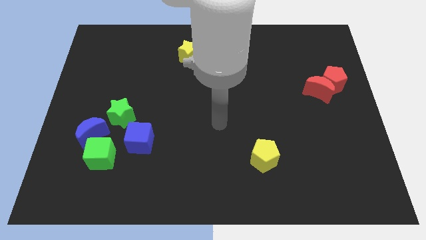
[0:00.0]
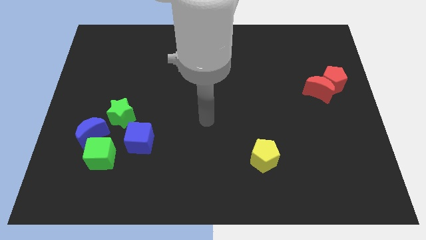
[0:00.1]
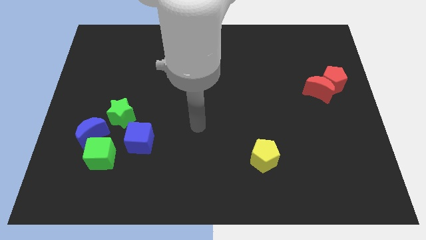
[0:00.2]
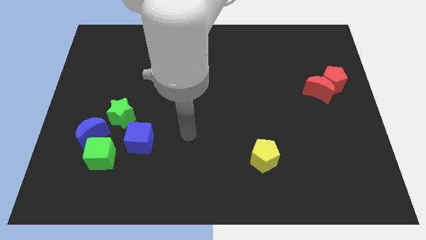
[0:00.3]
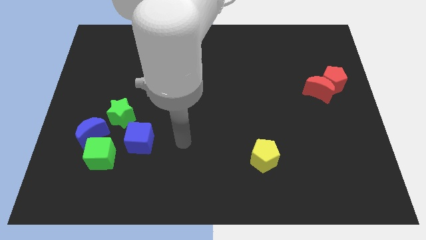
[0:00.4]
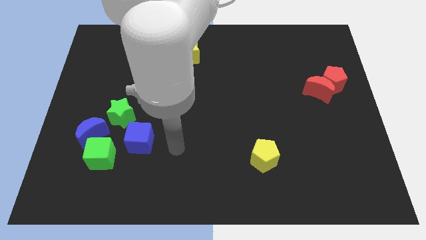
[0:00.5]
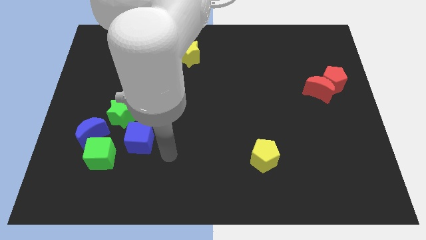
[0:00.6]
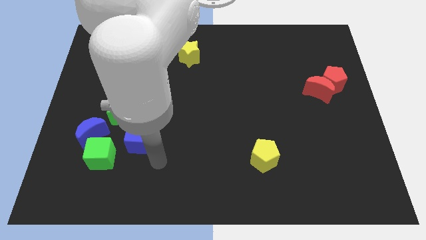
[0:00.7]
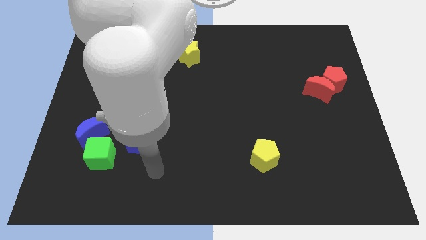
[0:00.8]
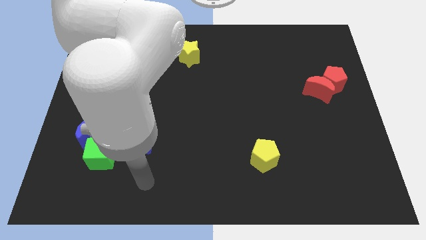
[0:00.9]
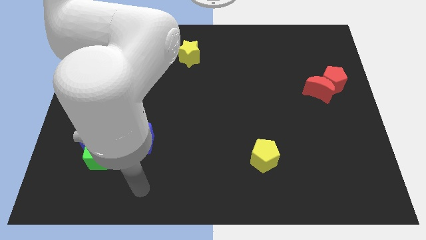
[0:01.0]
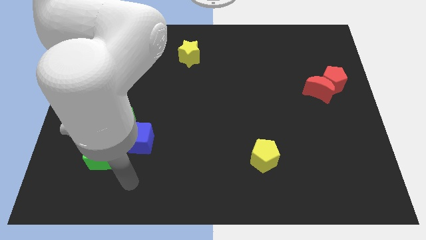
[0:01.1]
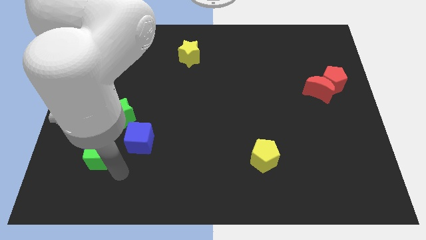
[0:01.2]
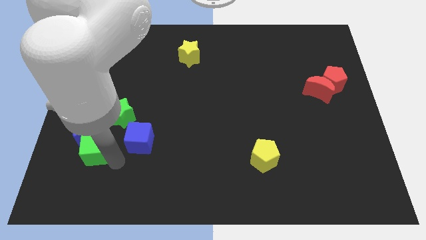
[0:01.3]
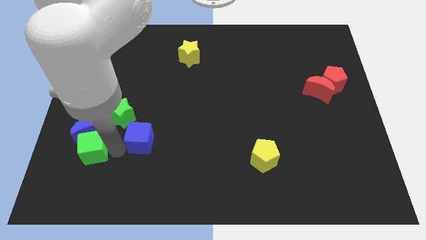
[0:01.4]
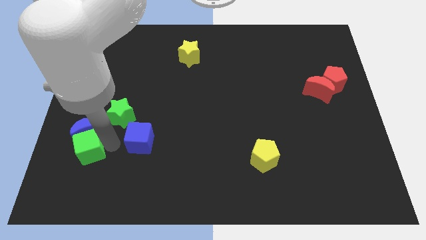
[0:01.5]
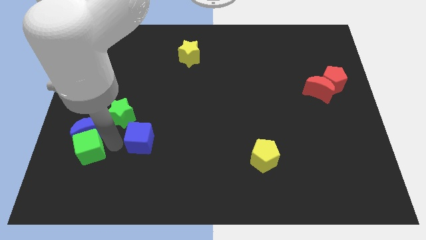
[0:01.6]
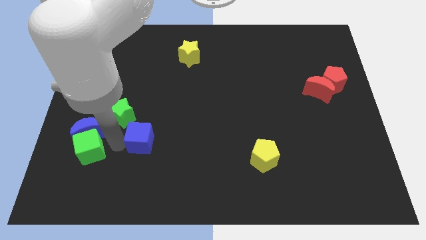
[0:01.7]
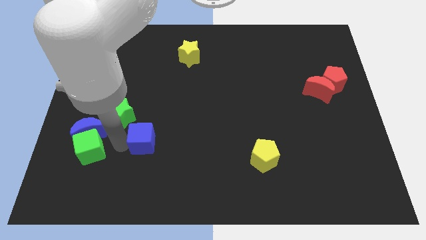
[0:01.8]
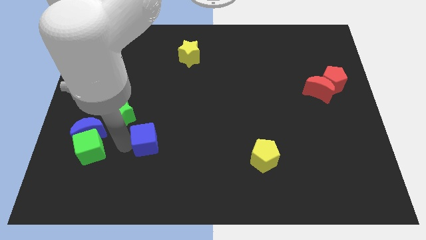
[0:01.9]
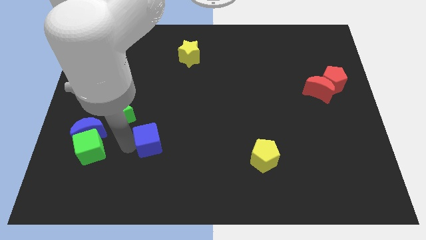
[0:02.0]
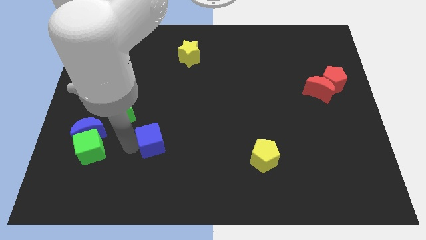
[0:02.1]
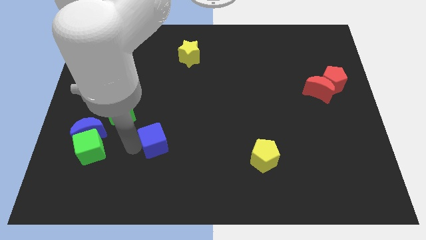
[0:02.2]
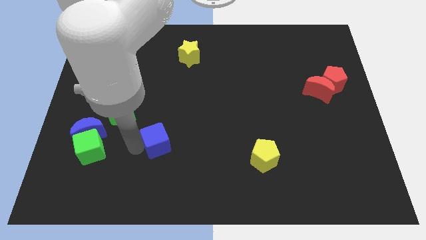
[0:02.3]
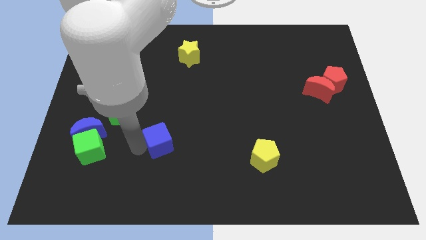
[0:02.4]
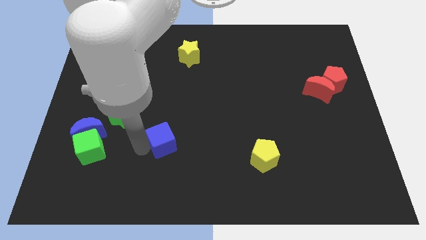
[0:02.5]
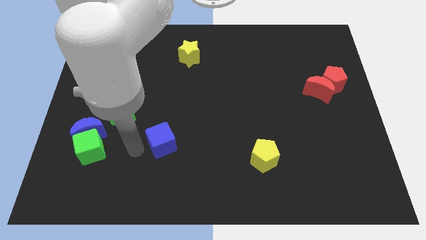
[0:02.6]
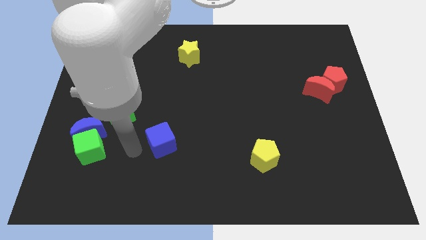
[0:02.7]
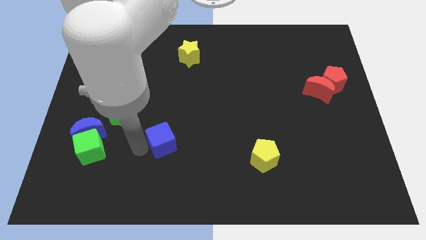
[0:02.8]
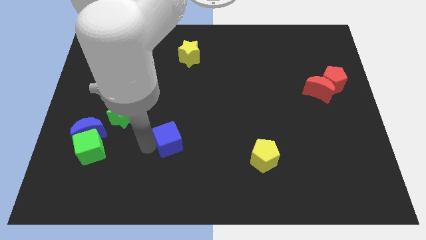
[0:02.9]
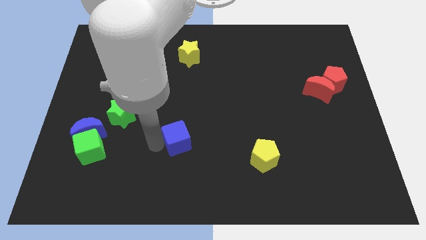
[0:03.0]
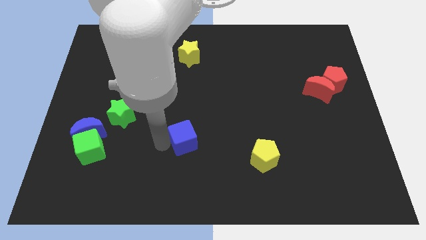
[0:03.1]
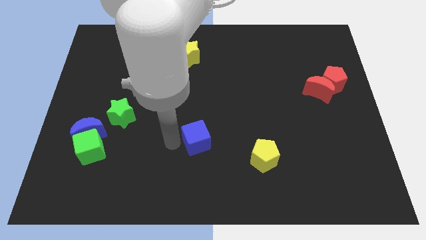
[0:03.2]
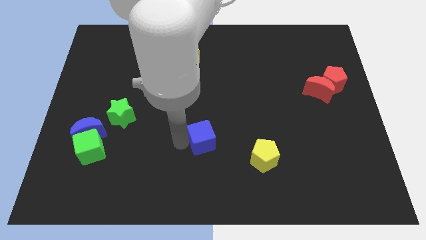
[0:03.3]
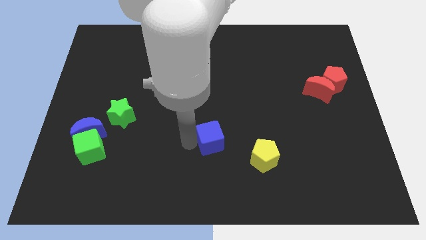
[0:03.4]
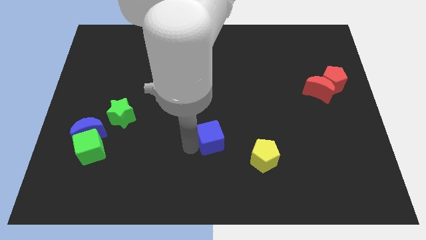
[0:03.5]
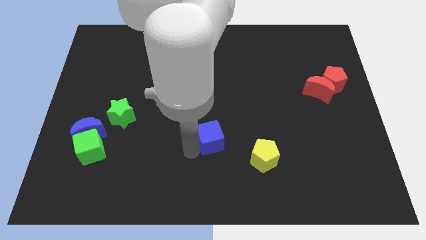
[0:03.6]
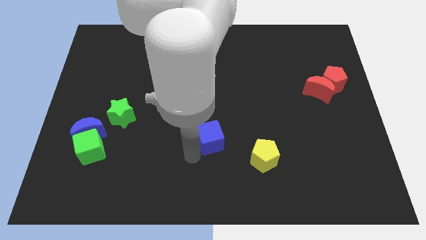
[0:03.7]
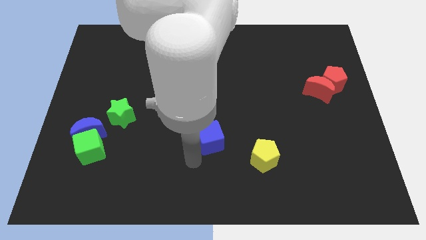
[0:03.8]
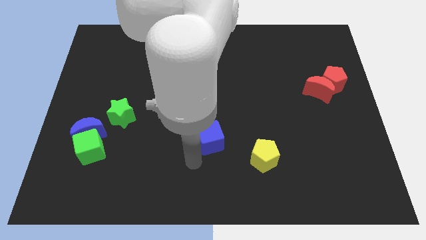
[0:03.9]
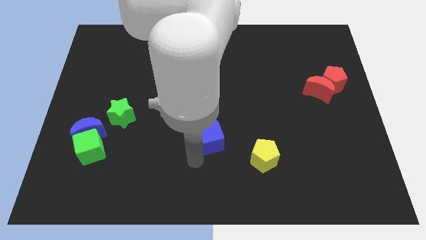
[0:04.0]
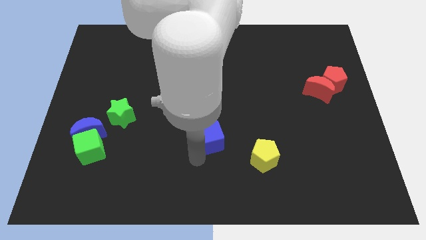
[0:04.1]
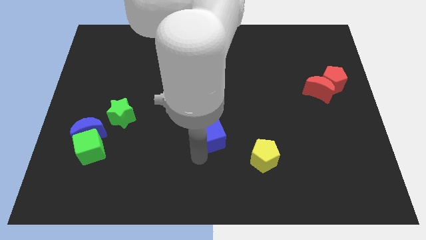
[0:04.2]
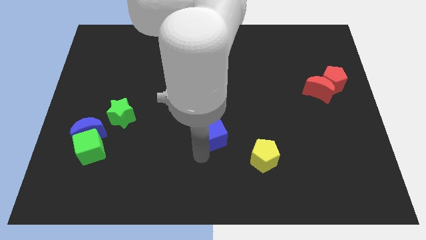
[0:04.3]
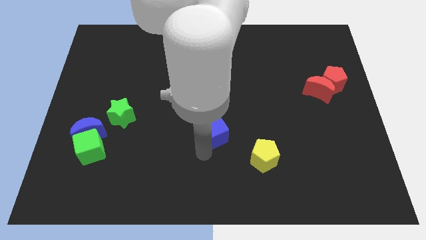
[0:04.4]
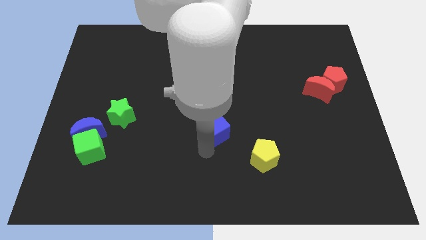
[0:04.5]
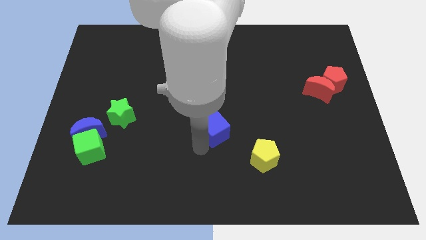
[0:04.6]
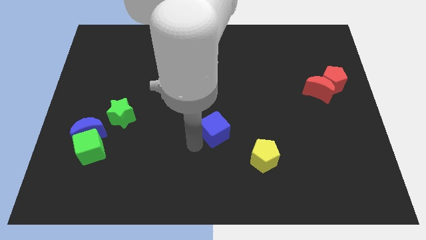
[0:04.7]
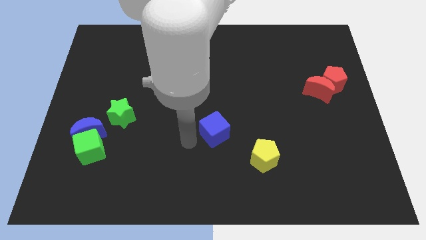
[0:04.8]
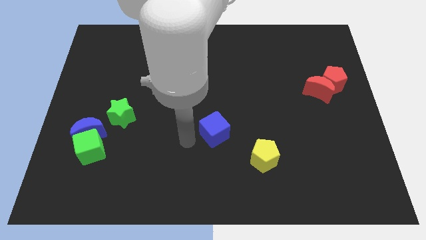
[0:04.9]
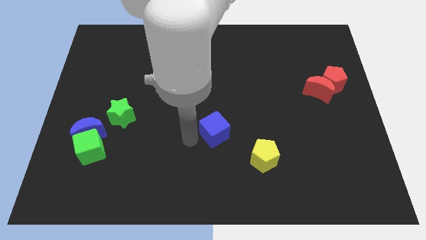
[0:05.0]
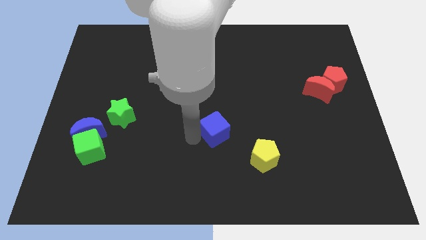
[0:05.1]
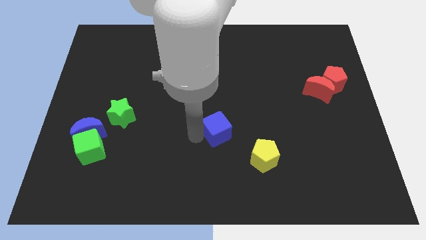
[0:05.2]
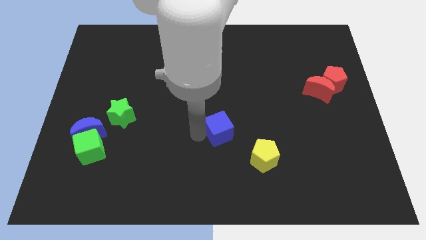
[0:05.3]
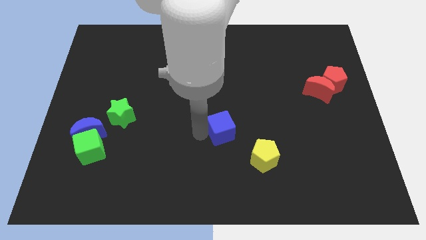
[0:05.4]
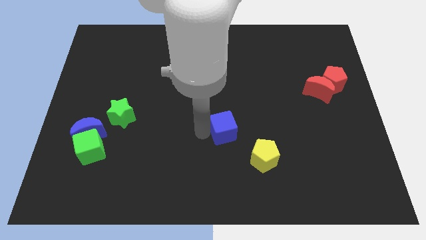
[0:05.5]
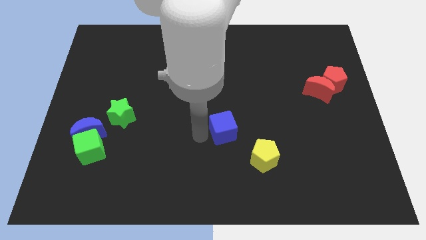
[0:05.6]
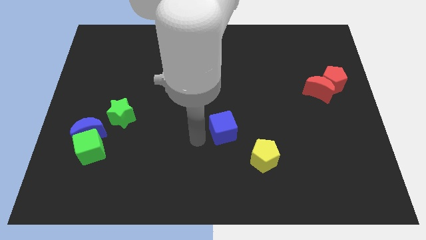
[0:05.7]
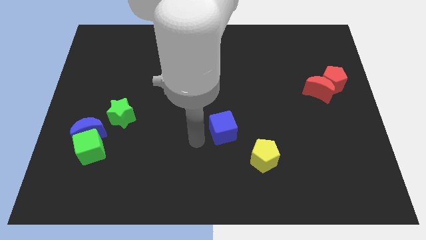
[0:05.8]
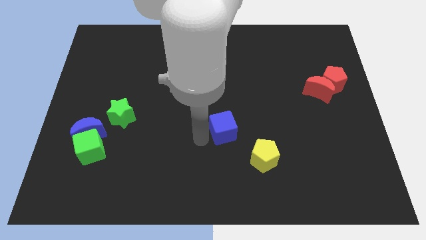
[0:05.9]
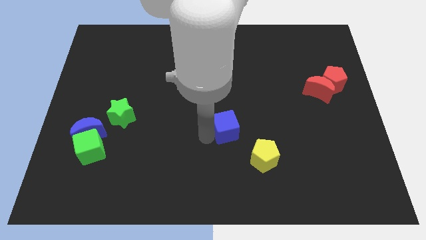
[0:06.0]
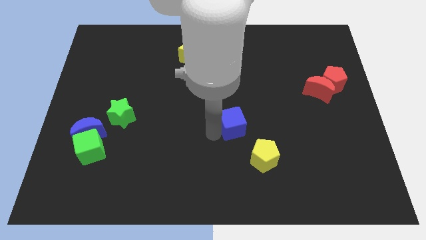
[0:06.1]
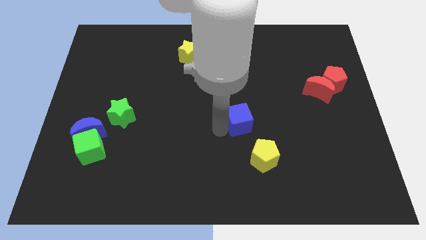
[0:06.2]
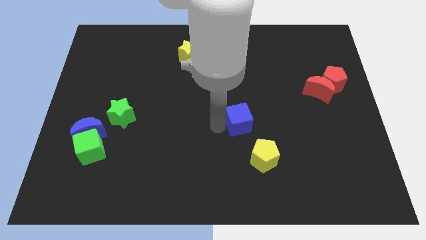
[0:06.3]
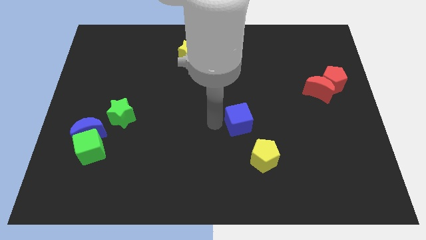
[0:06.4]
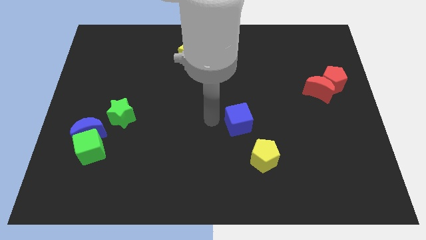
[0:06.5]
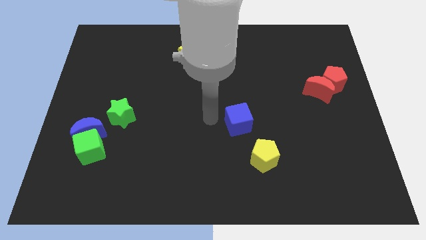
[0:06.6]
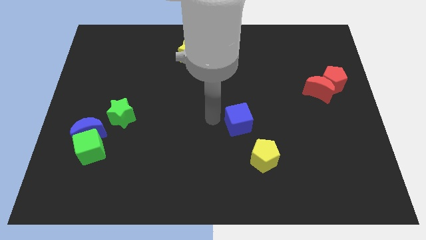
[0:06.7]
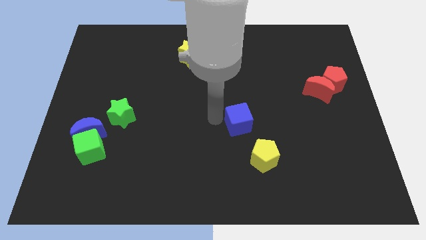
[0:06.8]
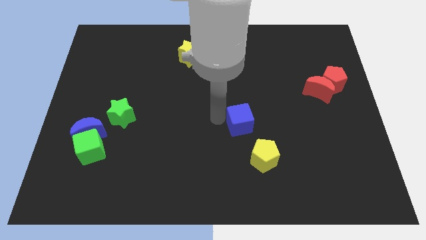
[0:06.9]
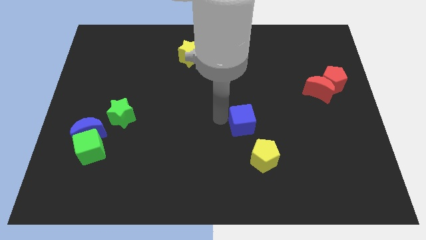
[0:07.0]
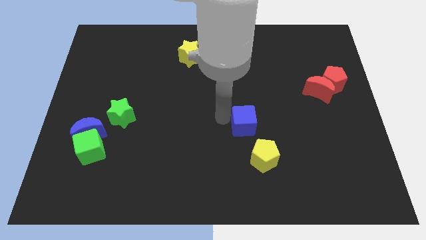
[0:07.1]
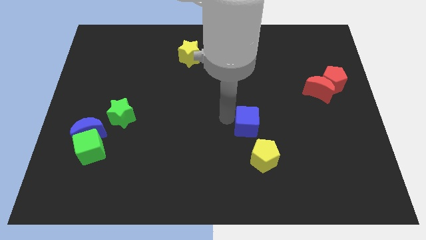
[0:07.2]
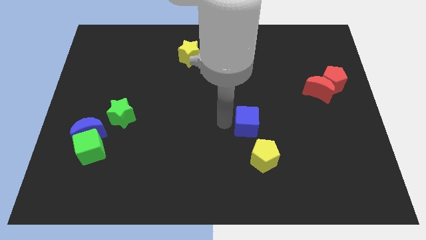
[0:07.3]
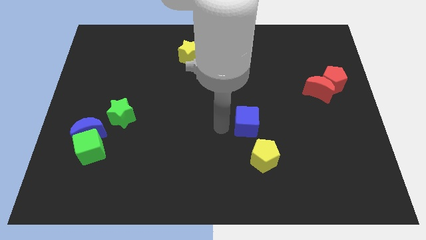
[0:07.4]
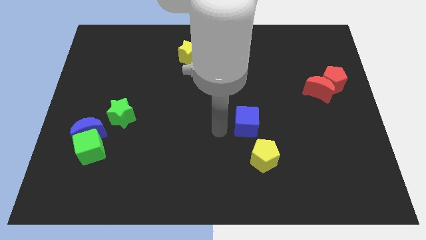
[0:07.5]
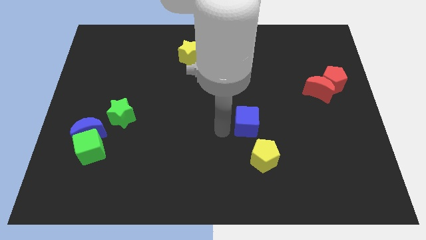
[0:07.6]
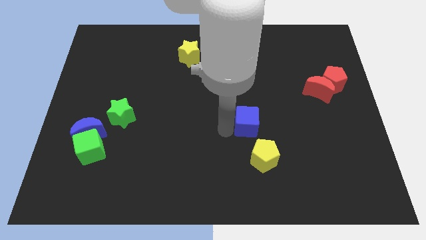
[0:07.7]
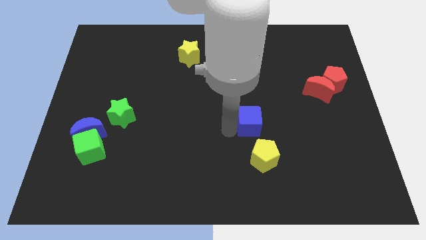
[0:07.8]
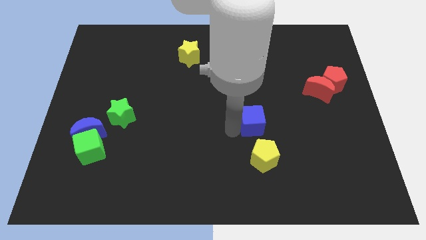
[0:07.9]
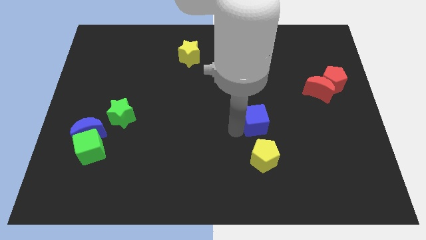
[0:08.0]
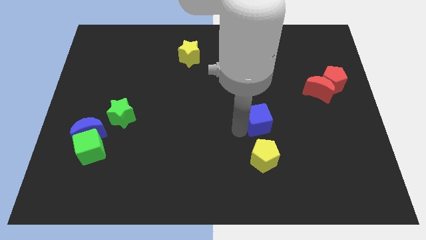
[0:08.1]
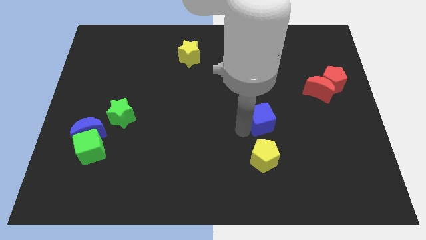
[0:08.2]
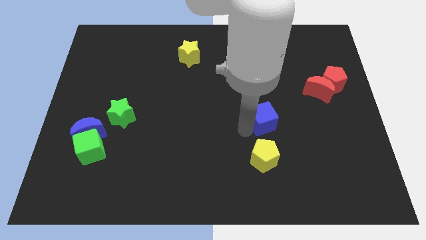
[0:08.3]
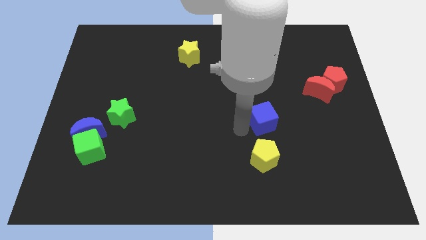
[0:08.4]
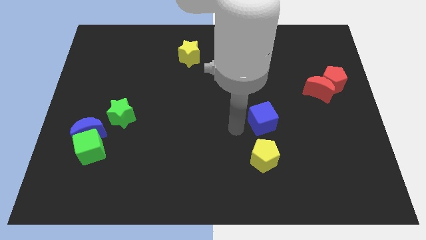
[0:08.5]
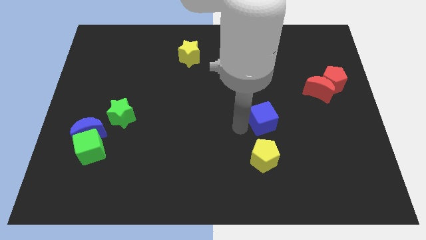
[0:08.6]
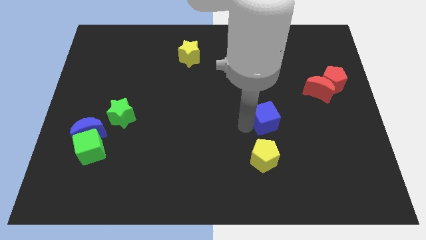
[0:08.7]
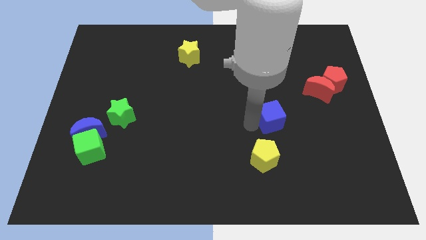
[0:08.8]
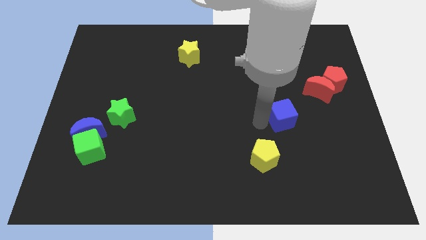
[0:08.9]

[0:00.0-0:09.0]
slide the blue cube diagonally down and to the left of the red moon
